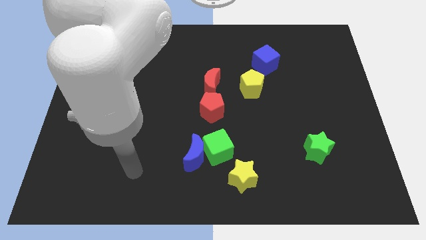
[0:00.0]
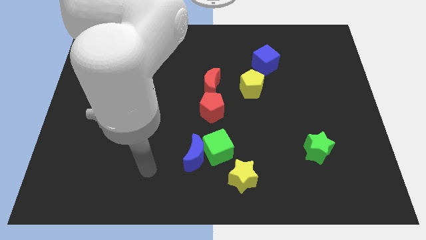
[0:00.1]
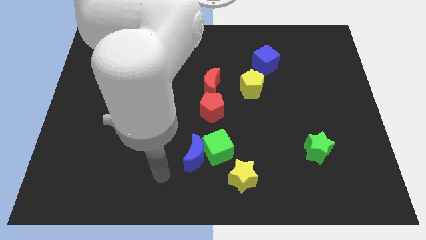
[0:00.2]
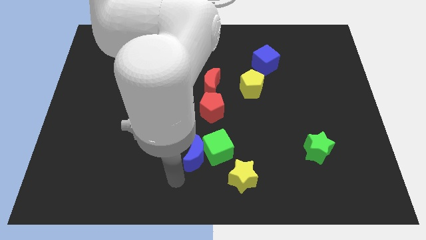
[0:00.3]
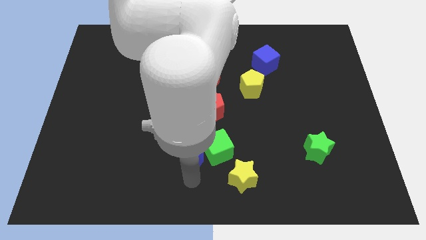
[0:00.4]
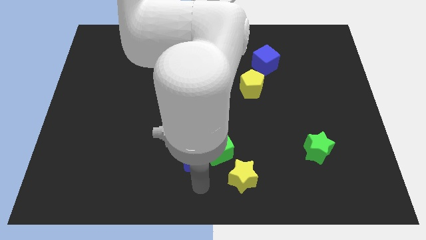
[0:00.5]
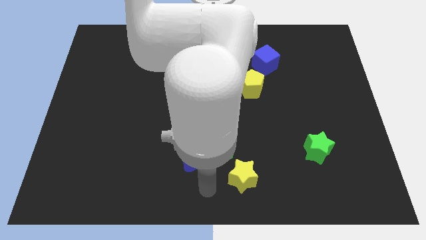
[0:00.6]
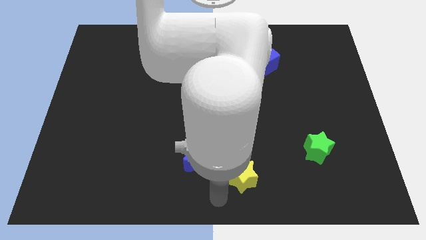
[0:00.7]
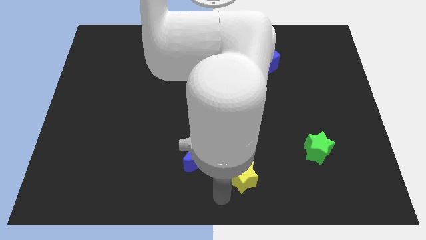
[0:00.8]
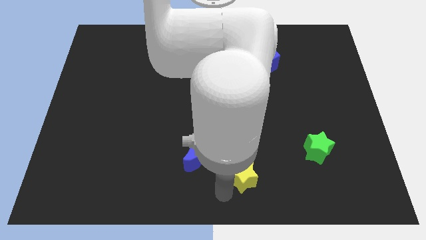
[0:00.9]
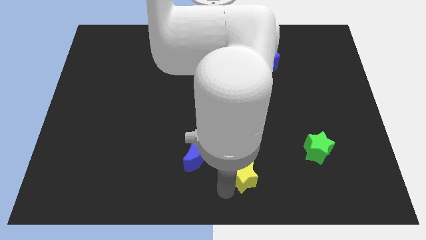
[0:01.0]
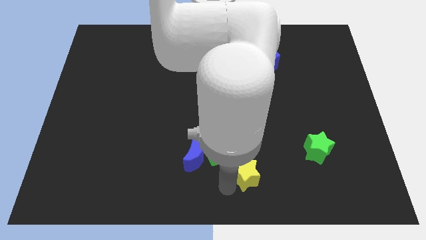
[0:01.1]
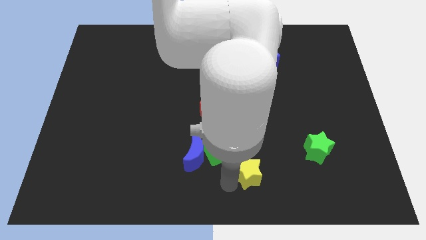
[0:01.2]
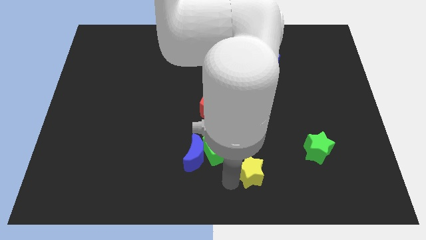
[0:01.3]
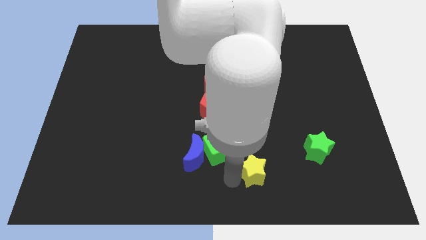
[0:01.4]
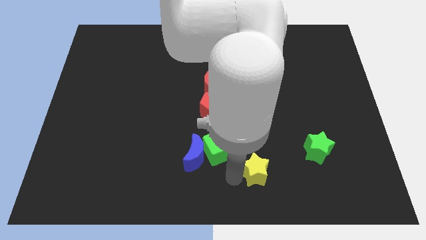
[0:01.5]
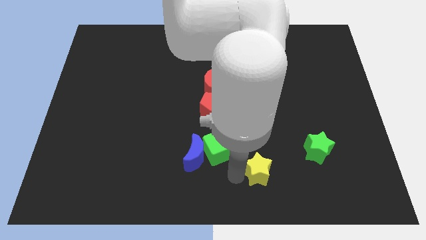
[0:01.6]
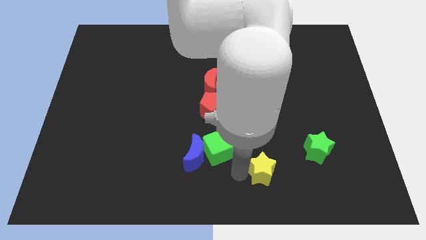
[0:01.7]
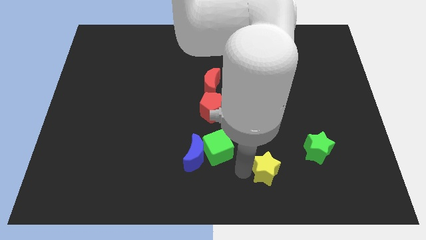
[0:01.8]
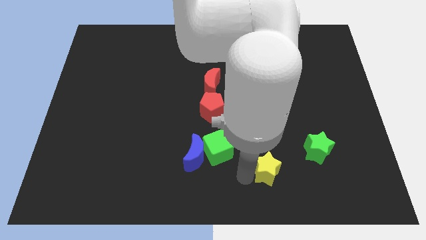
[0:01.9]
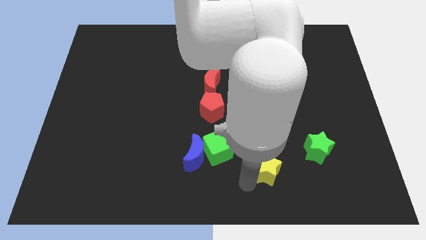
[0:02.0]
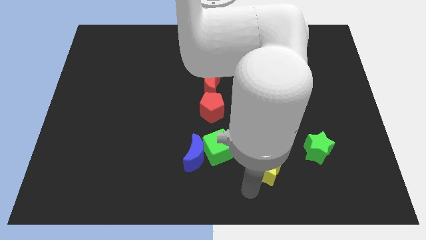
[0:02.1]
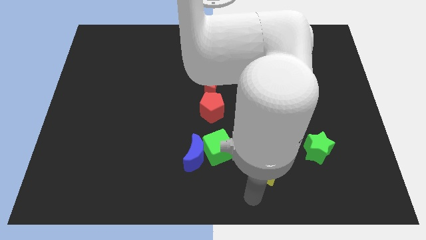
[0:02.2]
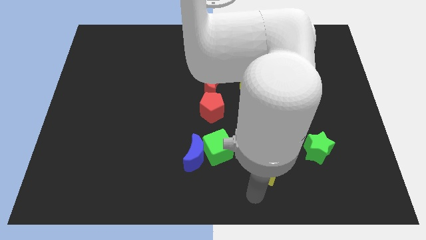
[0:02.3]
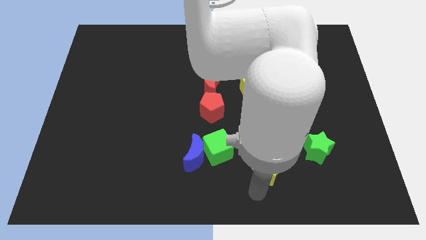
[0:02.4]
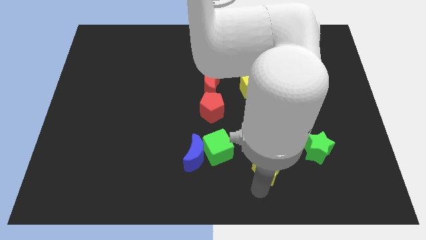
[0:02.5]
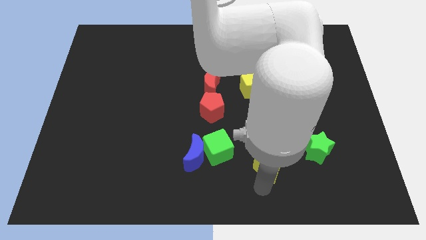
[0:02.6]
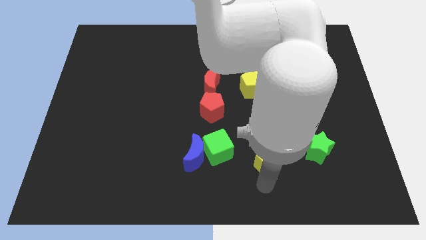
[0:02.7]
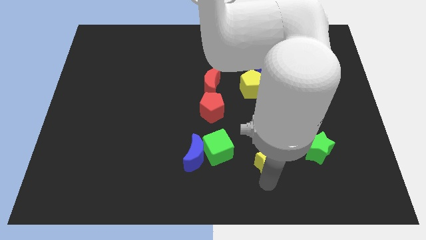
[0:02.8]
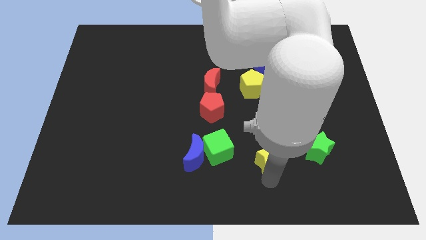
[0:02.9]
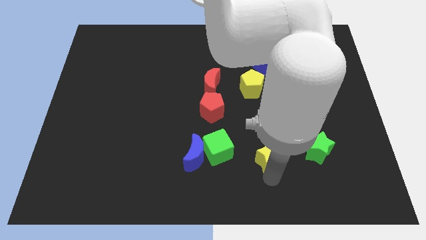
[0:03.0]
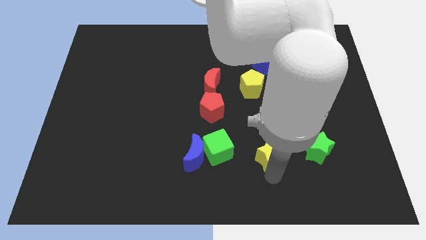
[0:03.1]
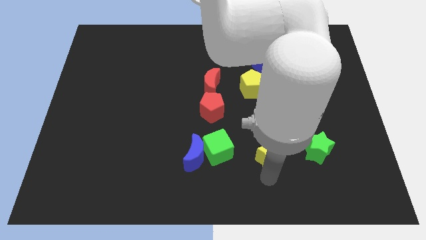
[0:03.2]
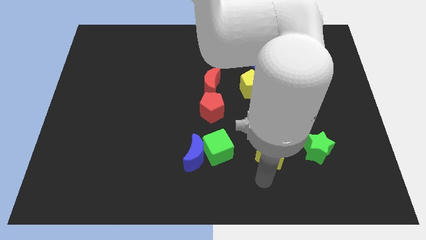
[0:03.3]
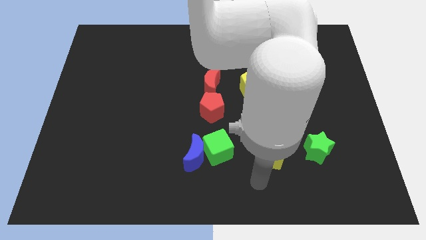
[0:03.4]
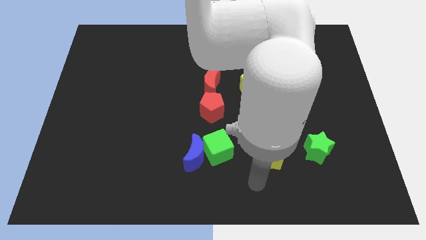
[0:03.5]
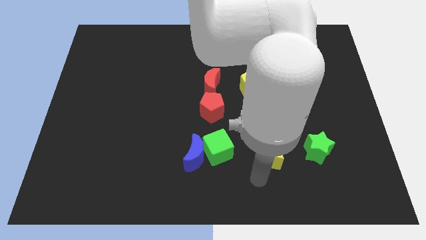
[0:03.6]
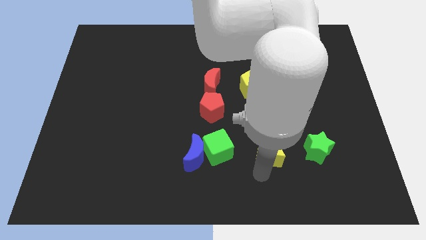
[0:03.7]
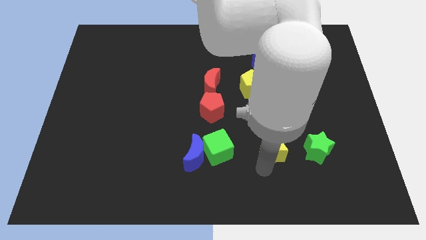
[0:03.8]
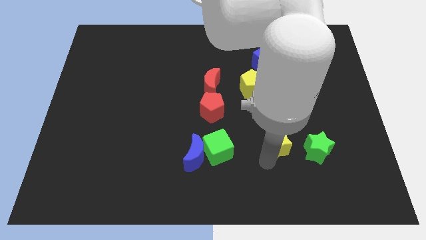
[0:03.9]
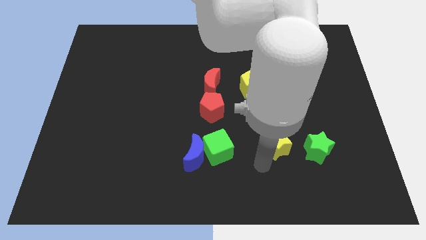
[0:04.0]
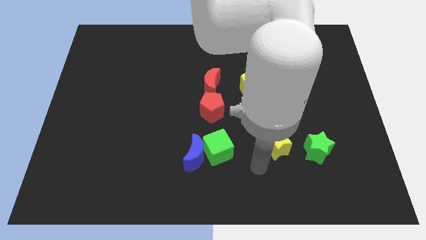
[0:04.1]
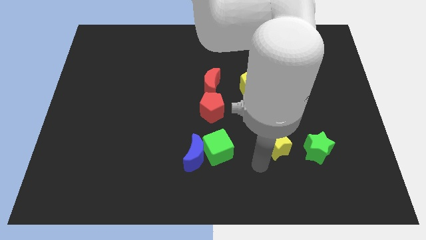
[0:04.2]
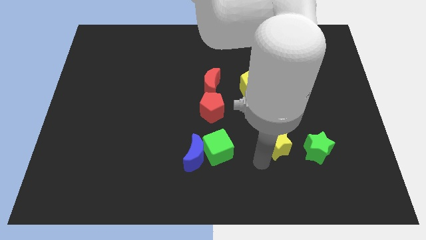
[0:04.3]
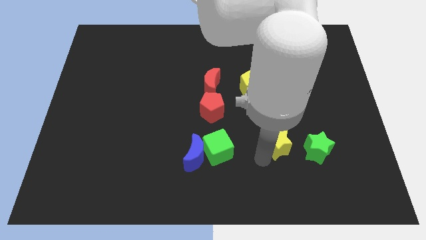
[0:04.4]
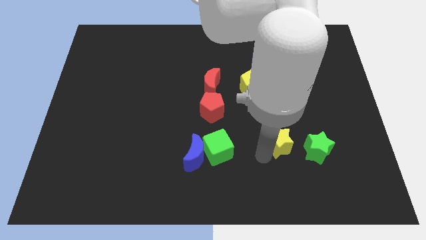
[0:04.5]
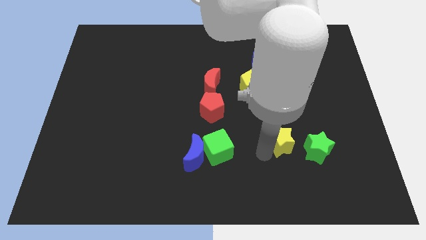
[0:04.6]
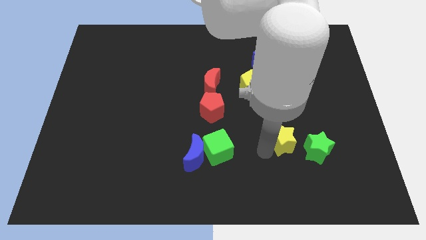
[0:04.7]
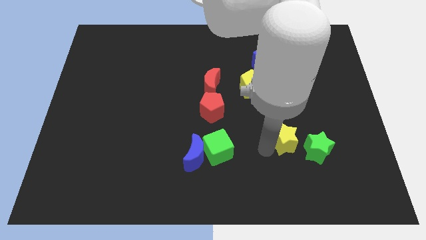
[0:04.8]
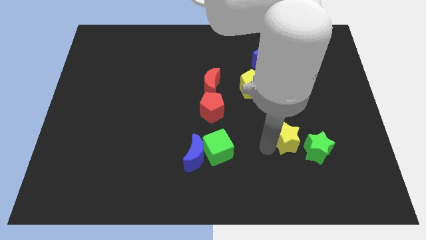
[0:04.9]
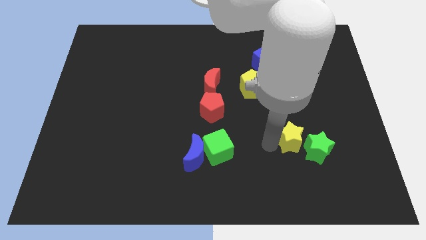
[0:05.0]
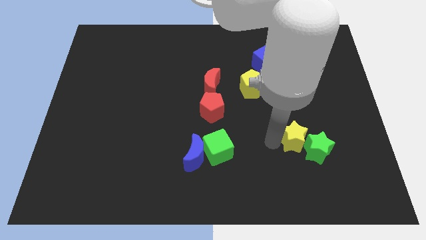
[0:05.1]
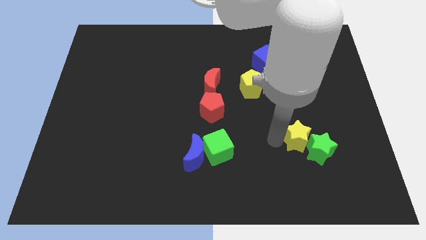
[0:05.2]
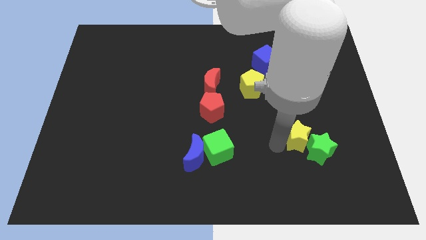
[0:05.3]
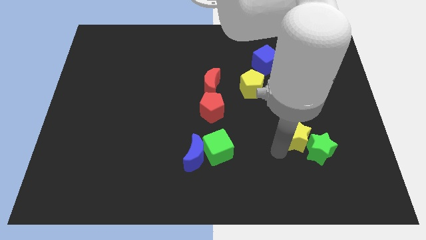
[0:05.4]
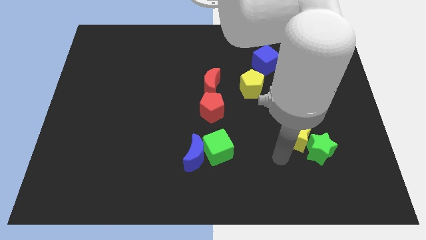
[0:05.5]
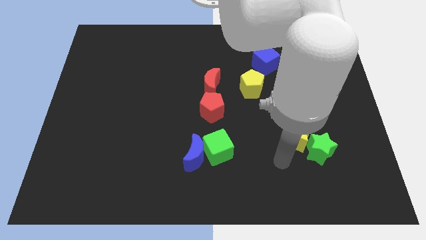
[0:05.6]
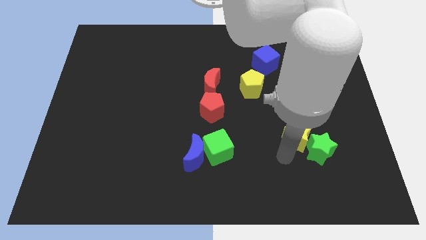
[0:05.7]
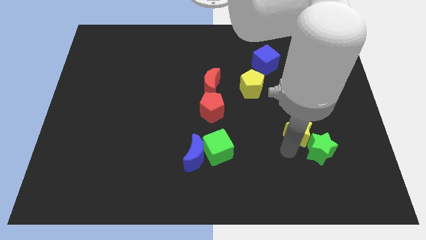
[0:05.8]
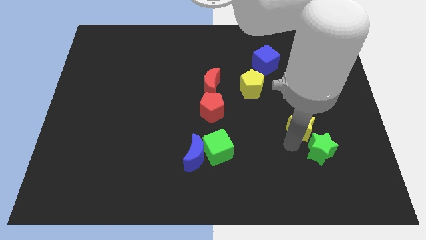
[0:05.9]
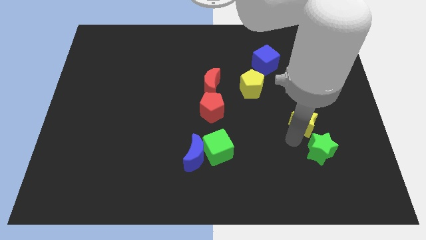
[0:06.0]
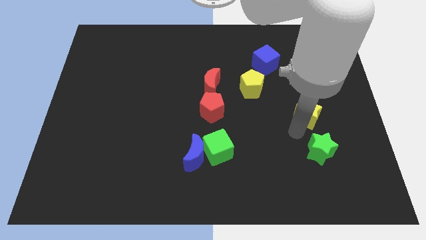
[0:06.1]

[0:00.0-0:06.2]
push the yellow star diagonally up and right

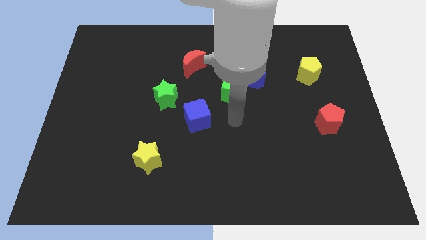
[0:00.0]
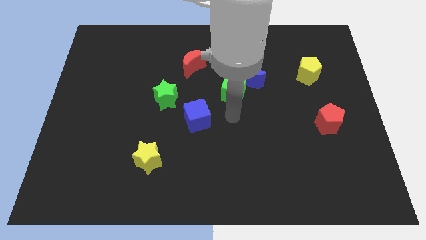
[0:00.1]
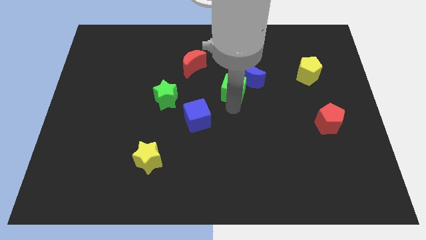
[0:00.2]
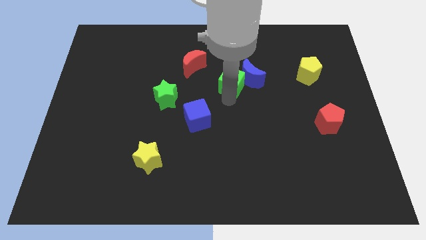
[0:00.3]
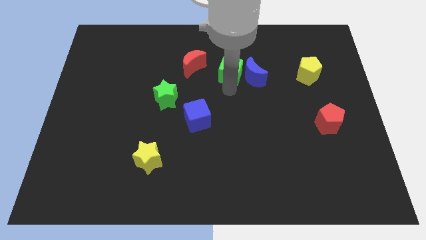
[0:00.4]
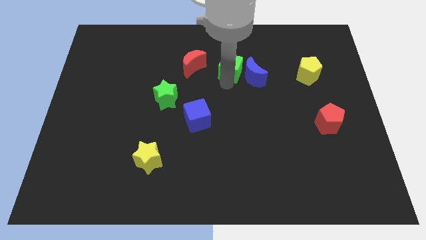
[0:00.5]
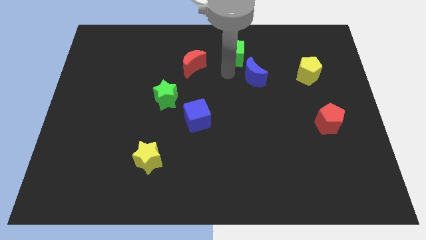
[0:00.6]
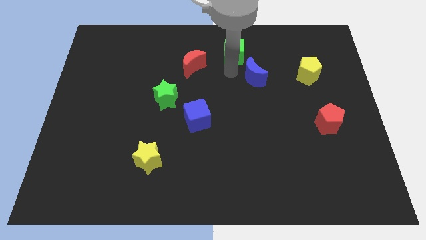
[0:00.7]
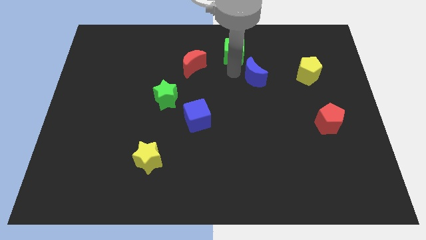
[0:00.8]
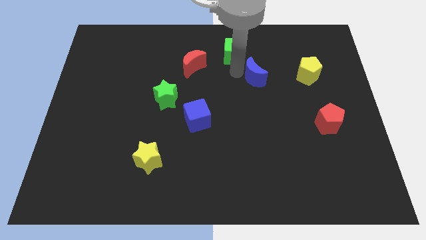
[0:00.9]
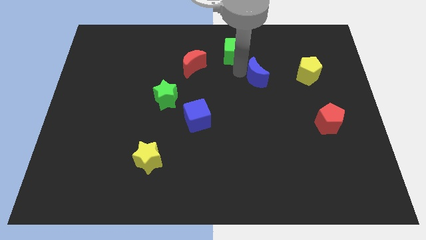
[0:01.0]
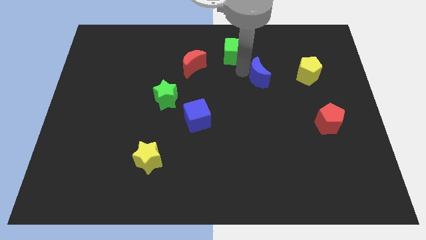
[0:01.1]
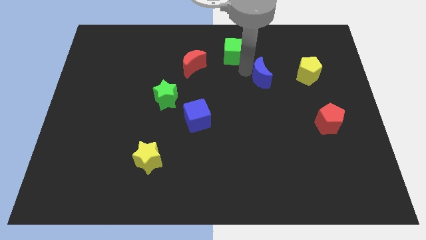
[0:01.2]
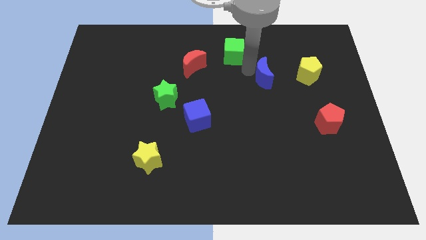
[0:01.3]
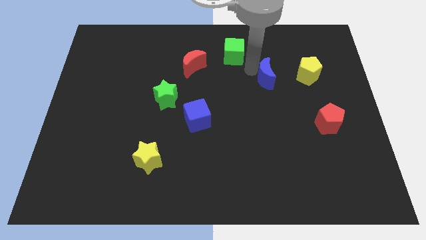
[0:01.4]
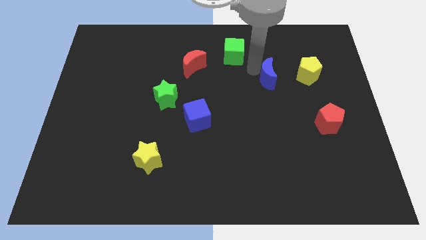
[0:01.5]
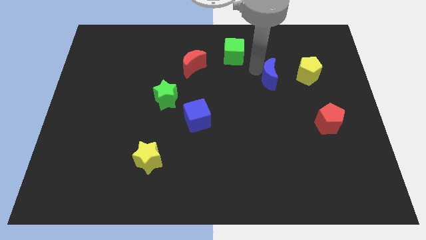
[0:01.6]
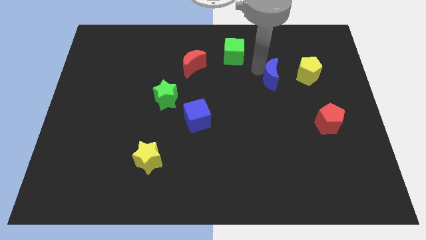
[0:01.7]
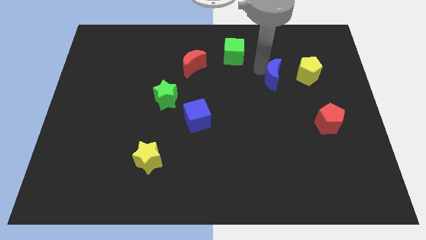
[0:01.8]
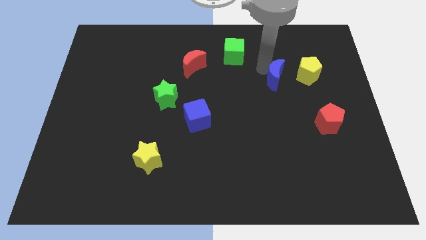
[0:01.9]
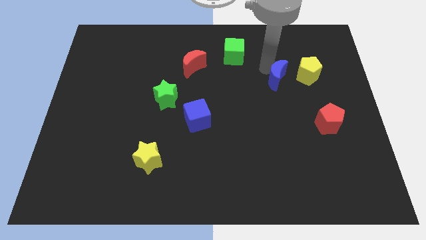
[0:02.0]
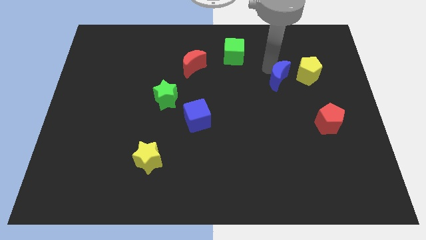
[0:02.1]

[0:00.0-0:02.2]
slightly move the blue moon to the right
